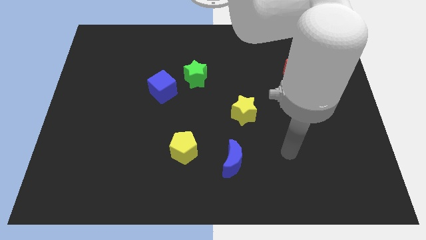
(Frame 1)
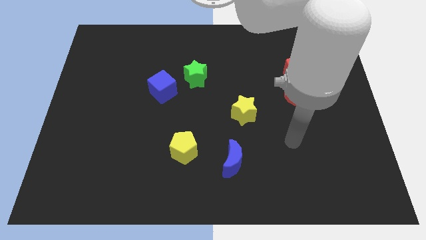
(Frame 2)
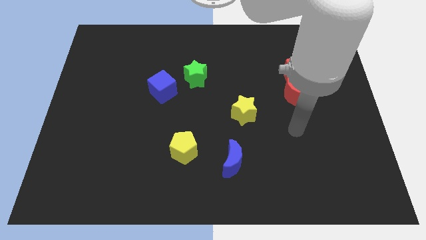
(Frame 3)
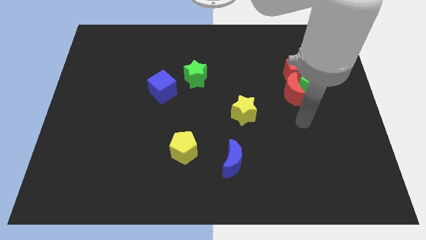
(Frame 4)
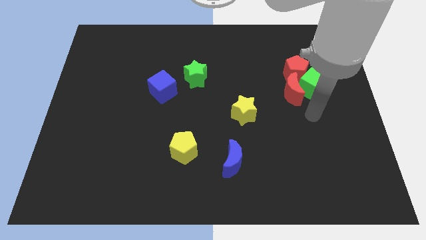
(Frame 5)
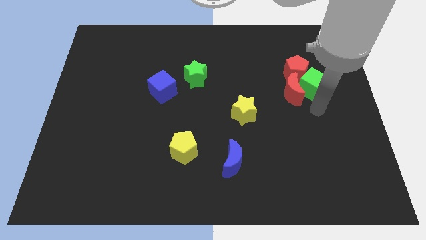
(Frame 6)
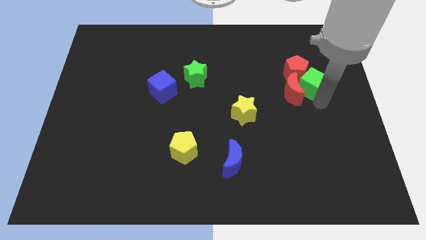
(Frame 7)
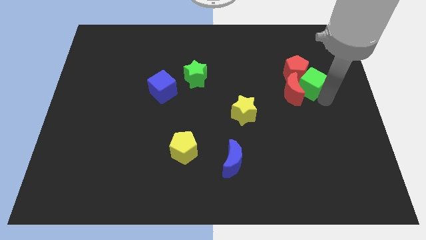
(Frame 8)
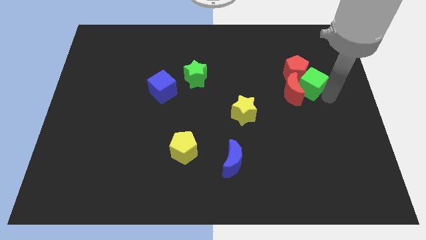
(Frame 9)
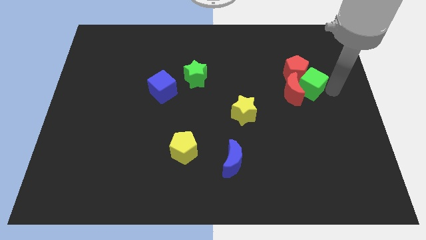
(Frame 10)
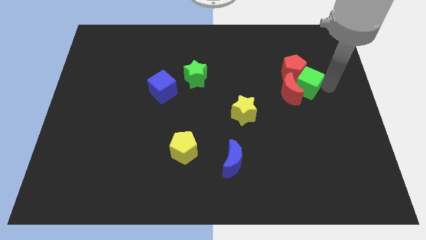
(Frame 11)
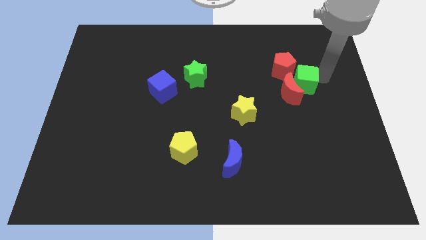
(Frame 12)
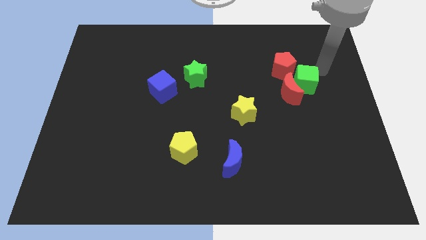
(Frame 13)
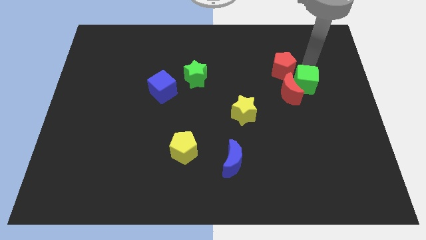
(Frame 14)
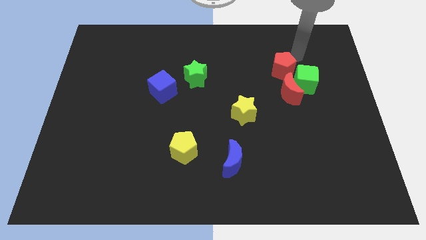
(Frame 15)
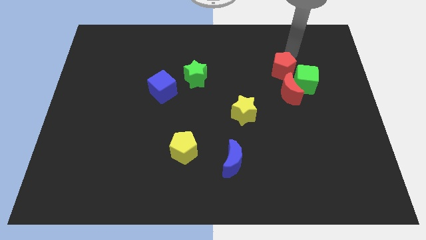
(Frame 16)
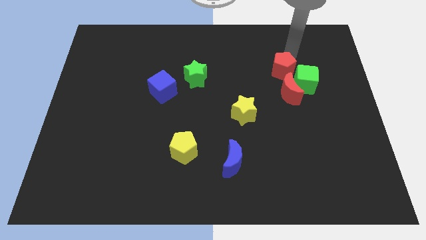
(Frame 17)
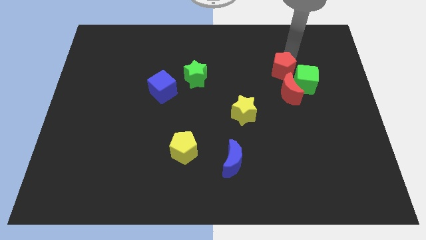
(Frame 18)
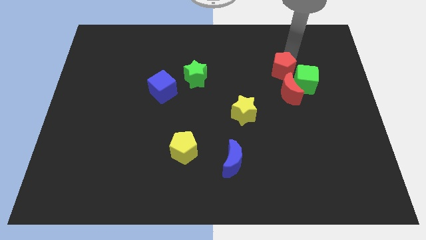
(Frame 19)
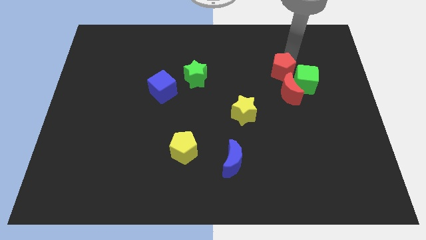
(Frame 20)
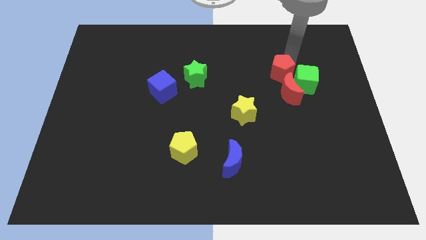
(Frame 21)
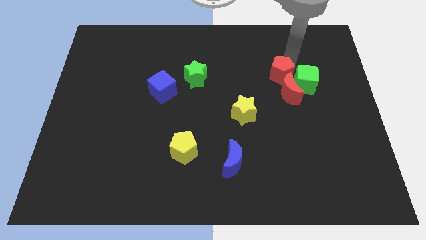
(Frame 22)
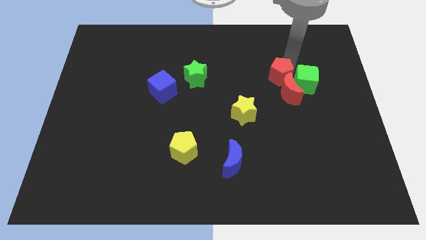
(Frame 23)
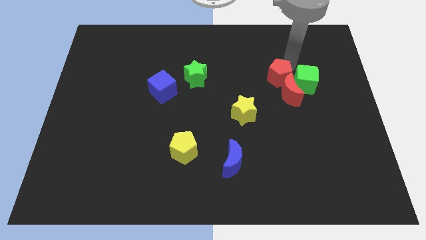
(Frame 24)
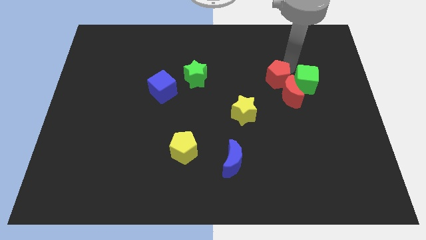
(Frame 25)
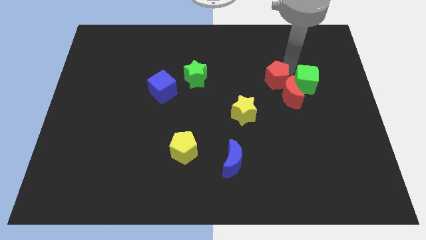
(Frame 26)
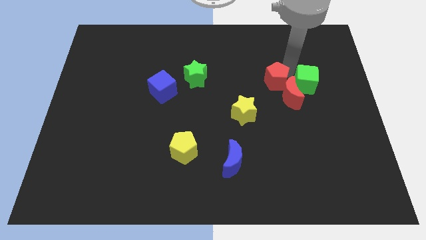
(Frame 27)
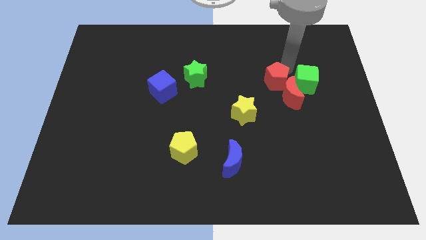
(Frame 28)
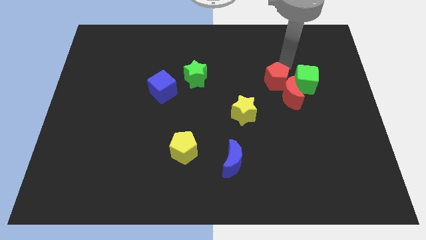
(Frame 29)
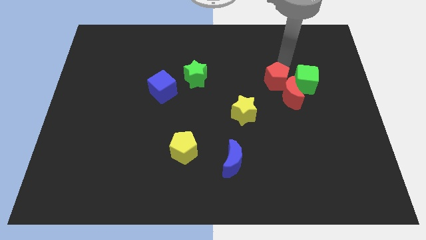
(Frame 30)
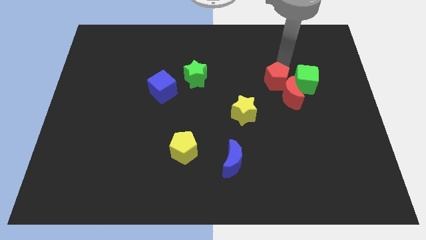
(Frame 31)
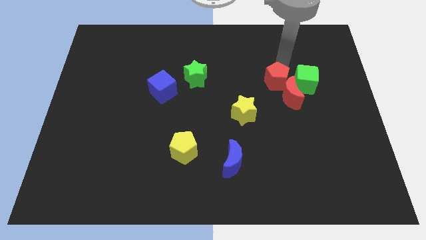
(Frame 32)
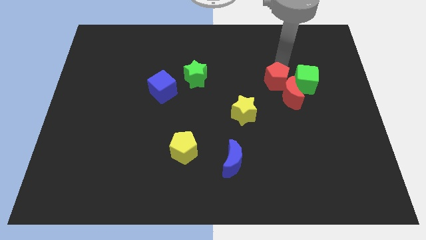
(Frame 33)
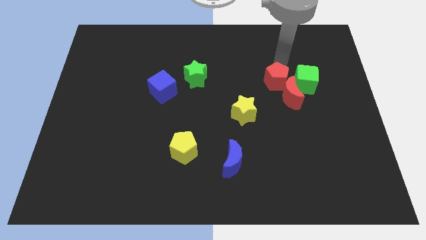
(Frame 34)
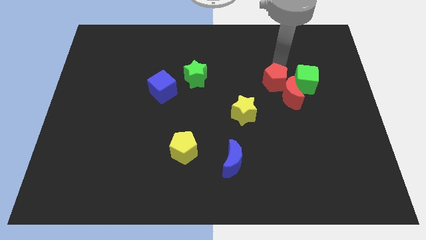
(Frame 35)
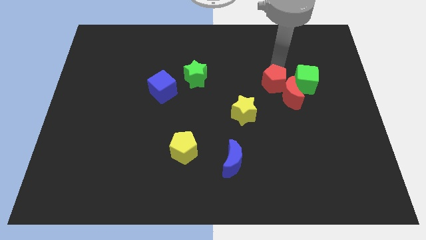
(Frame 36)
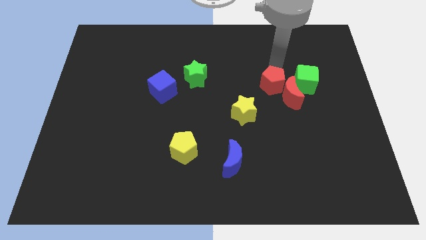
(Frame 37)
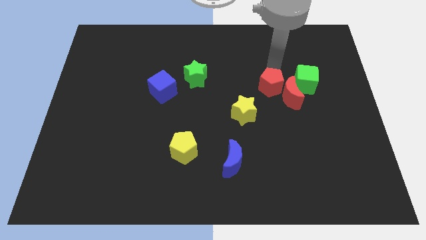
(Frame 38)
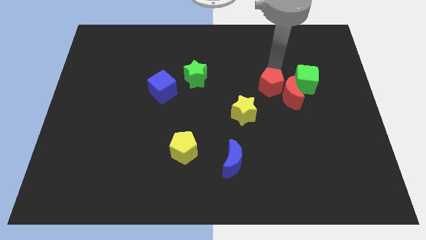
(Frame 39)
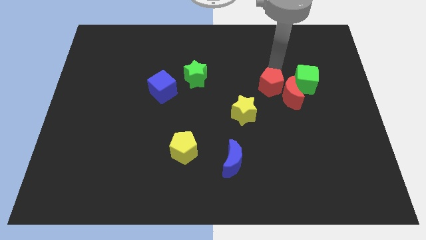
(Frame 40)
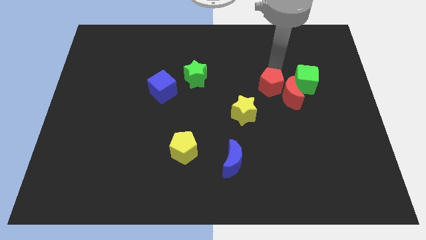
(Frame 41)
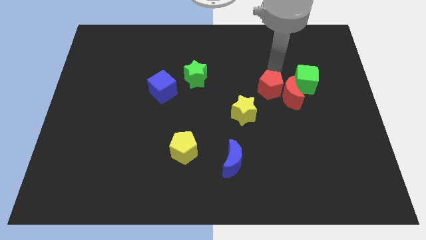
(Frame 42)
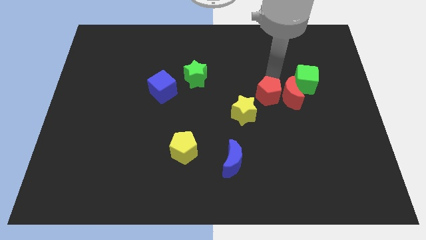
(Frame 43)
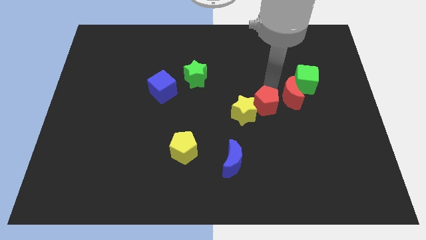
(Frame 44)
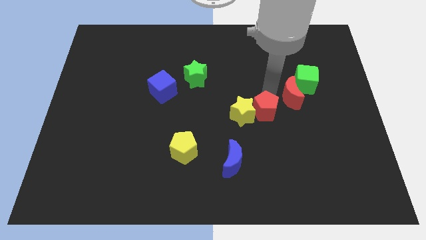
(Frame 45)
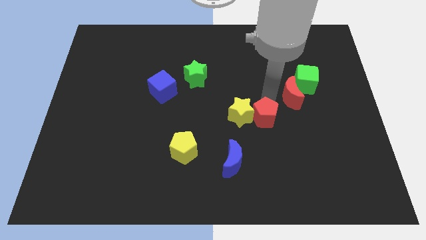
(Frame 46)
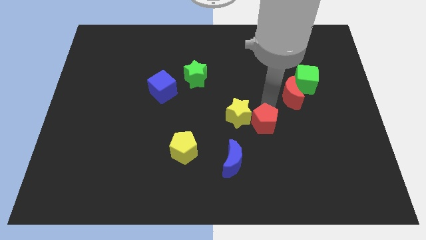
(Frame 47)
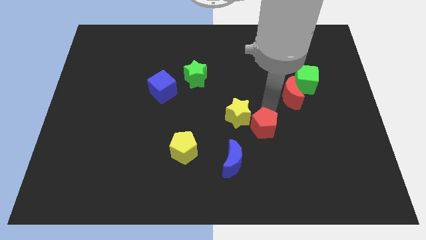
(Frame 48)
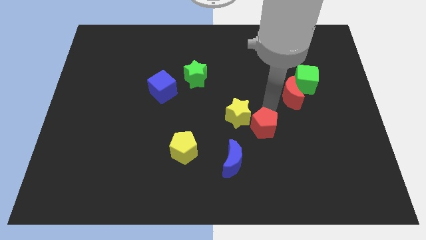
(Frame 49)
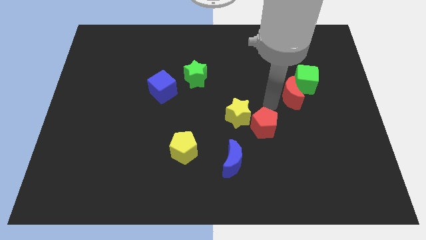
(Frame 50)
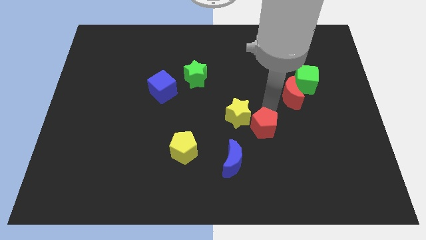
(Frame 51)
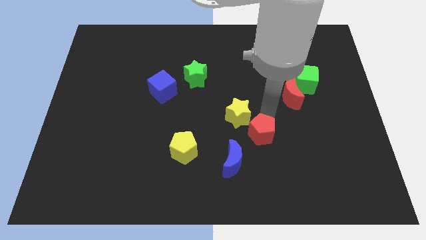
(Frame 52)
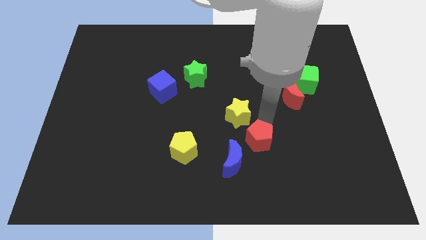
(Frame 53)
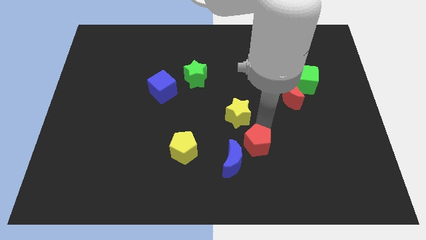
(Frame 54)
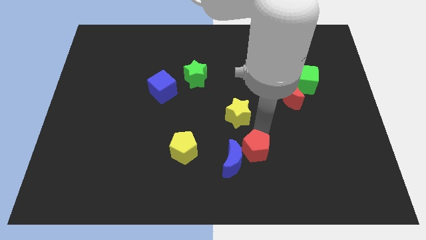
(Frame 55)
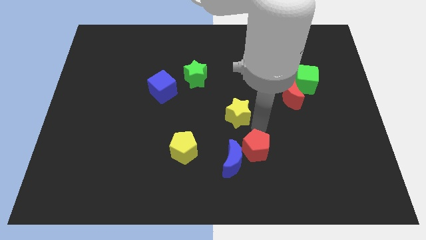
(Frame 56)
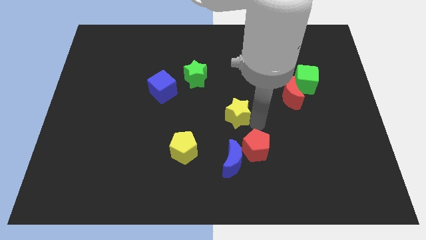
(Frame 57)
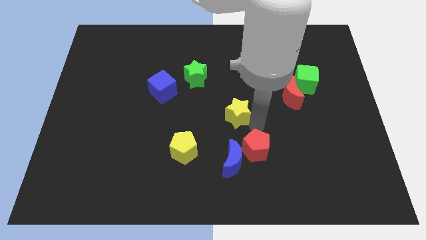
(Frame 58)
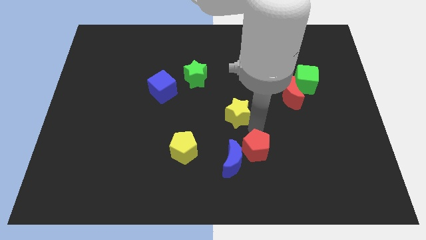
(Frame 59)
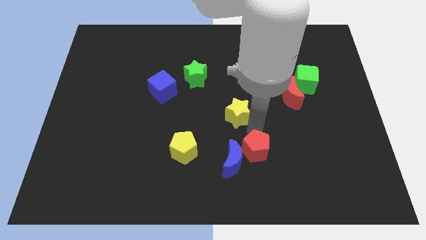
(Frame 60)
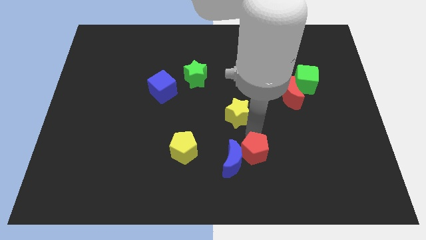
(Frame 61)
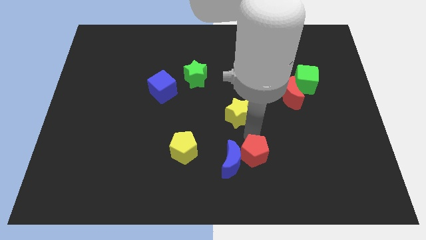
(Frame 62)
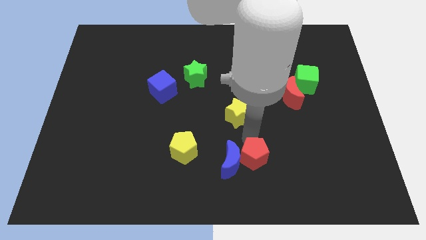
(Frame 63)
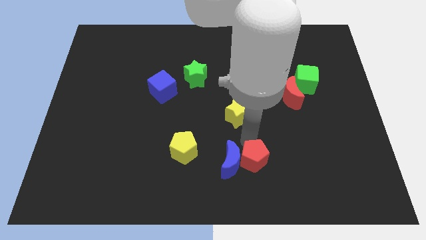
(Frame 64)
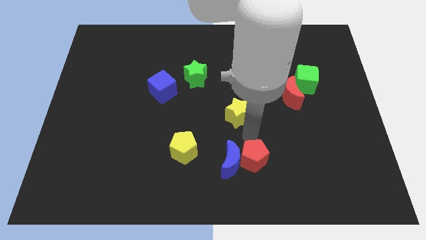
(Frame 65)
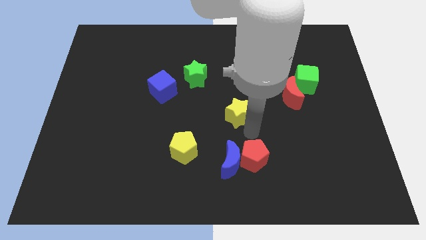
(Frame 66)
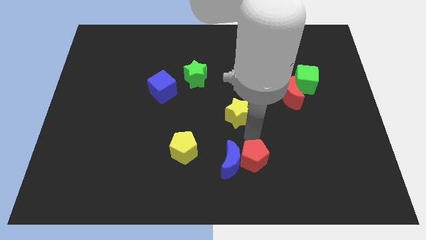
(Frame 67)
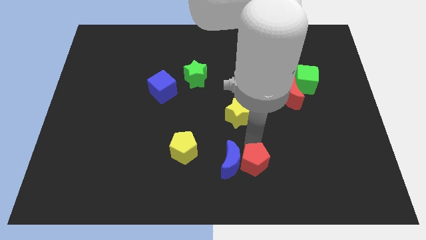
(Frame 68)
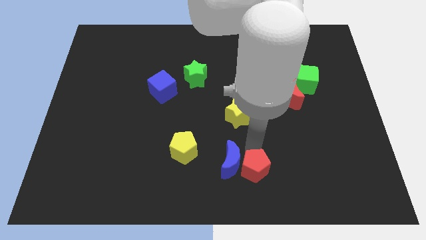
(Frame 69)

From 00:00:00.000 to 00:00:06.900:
slide the red pentagon to the bottom side
